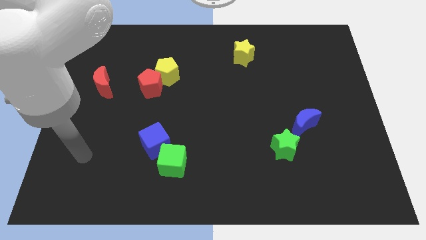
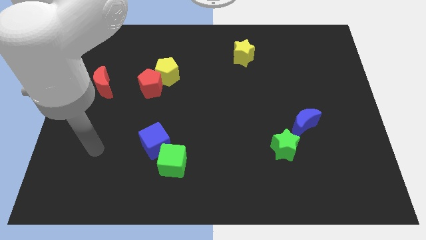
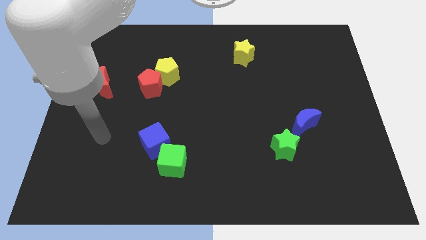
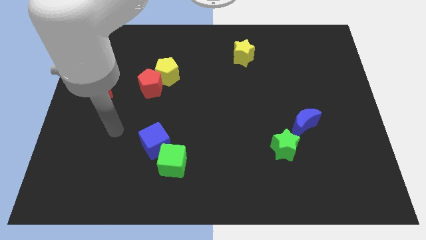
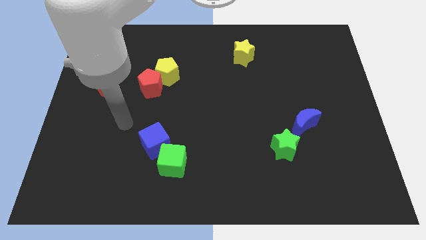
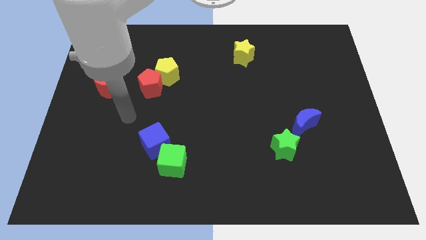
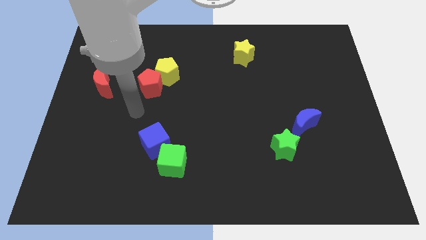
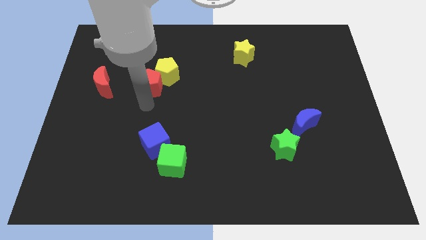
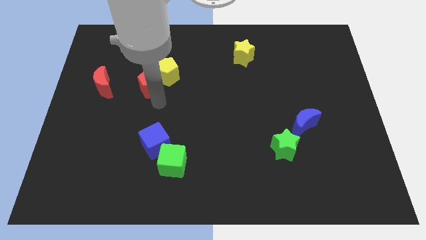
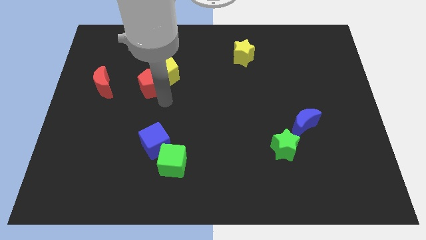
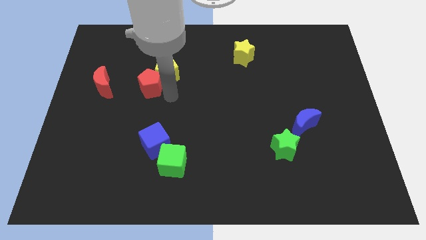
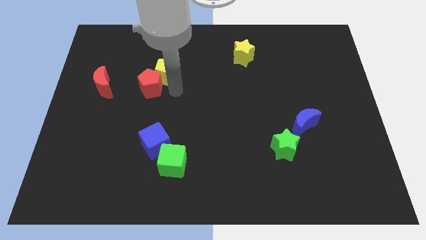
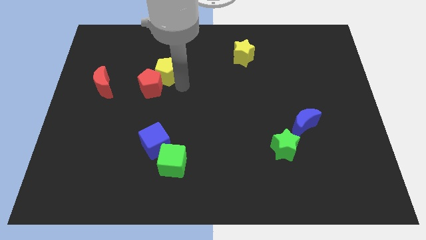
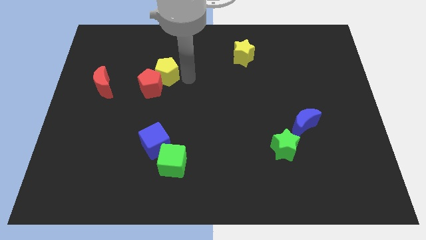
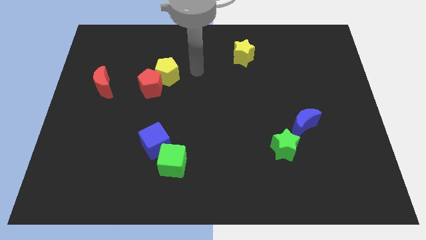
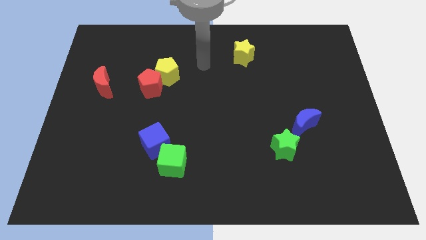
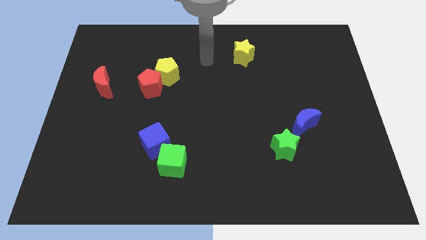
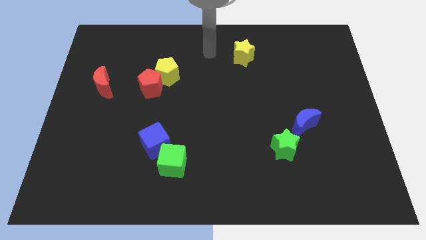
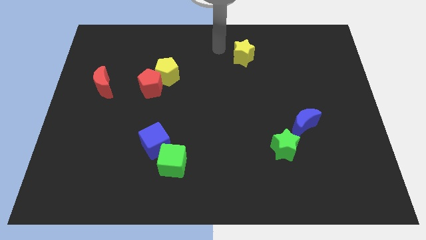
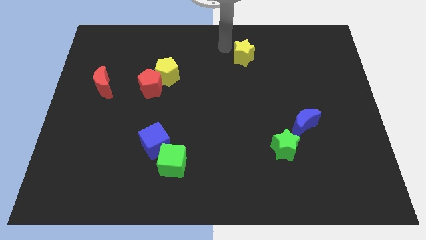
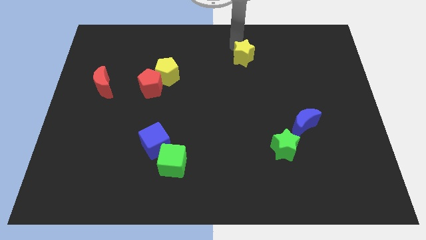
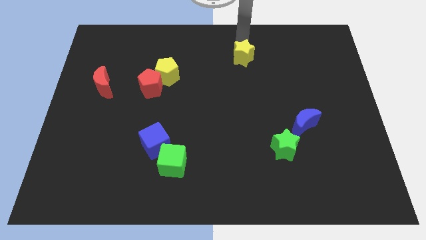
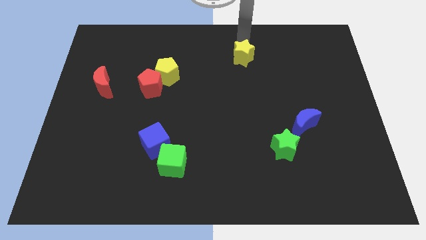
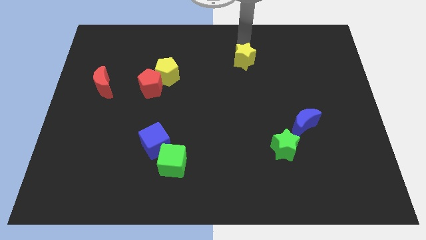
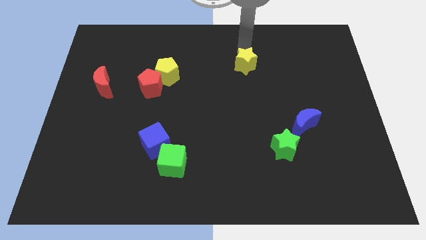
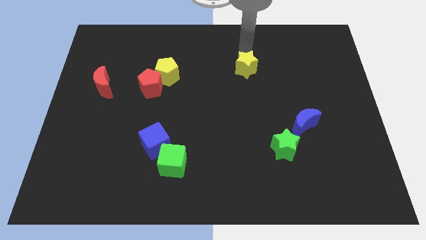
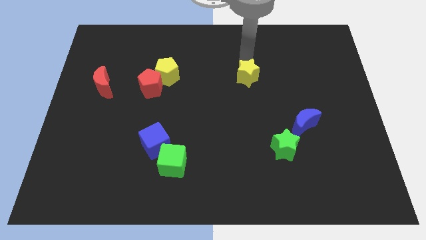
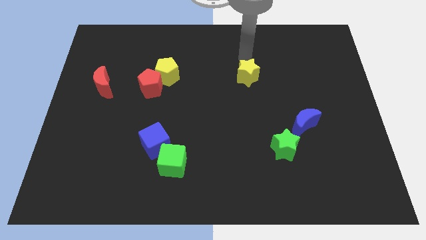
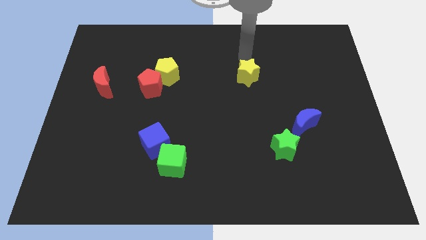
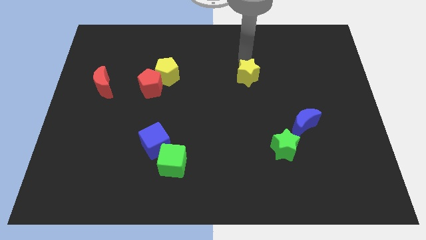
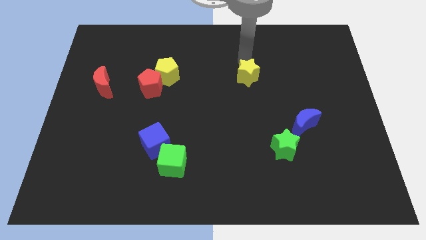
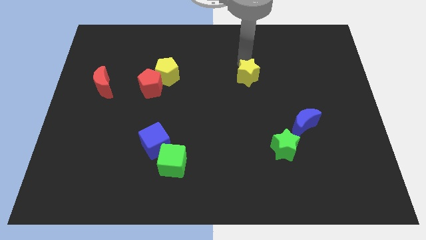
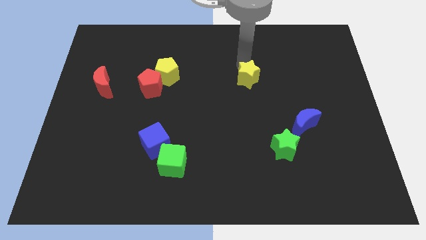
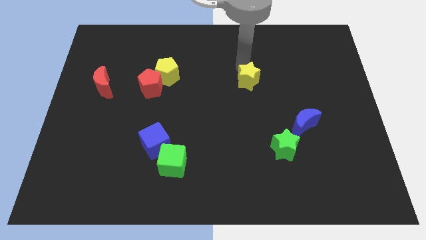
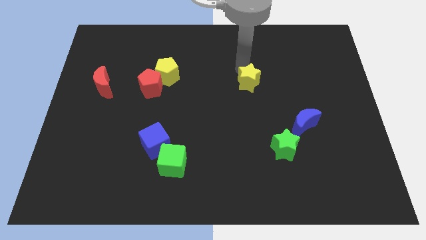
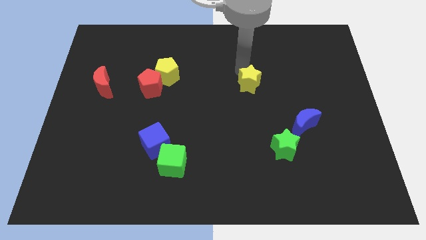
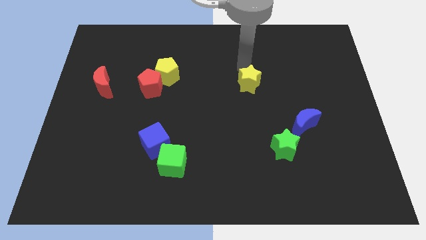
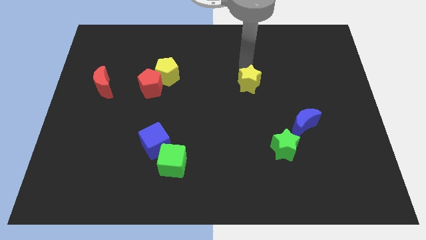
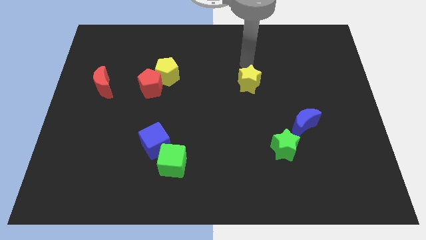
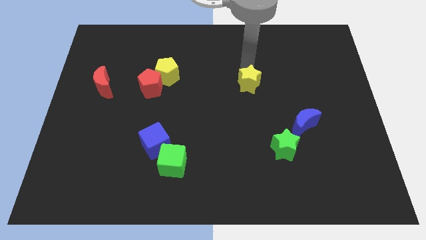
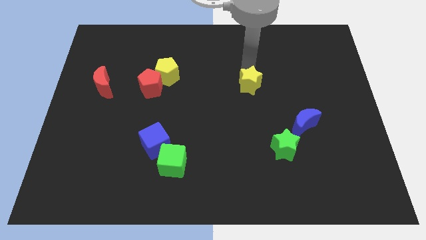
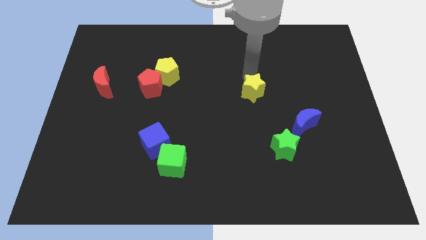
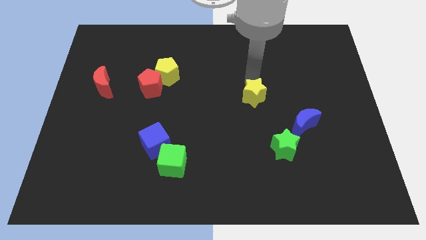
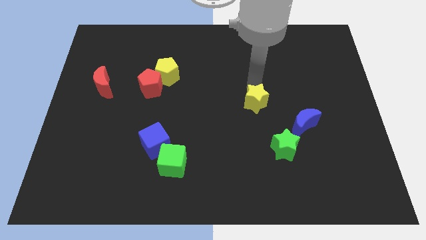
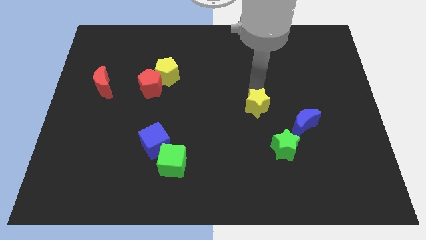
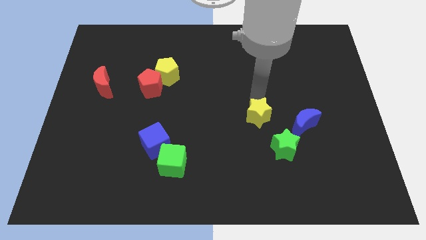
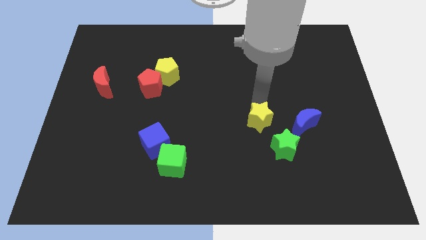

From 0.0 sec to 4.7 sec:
push the yellow star downwards

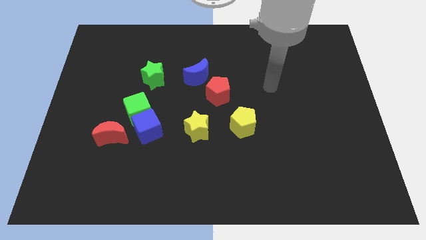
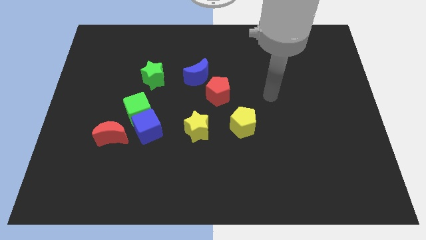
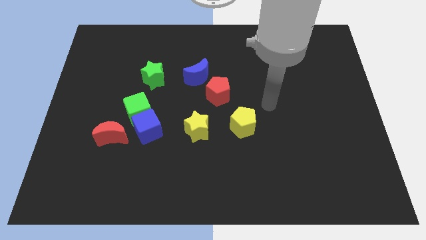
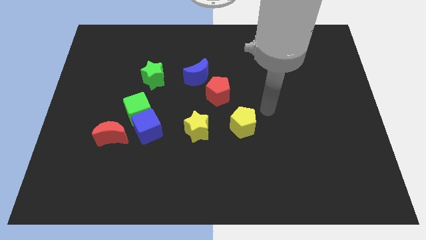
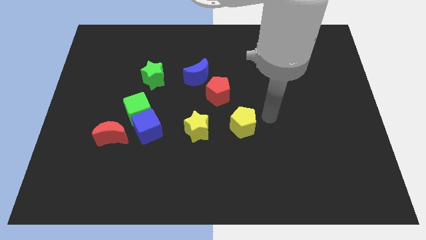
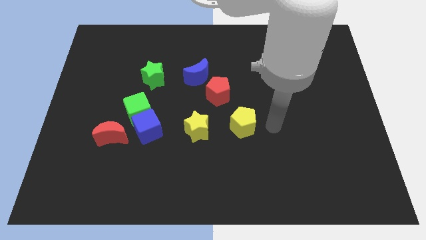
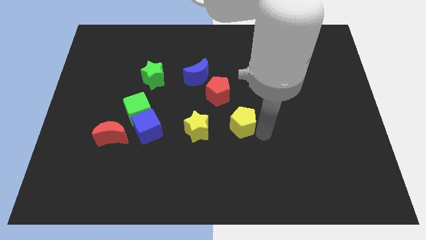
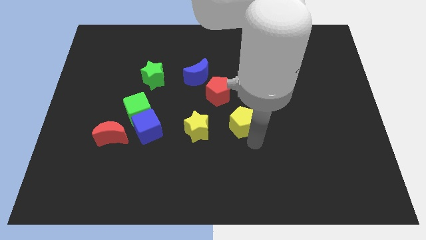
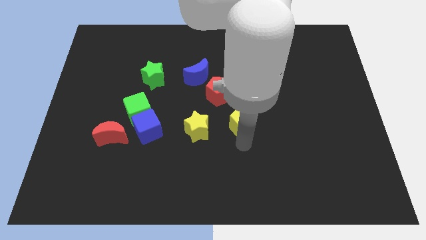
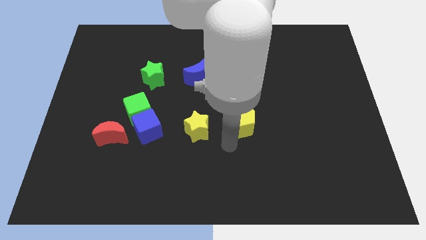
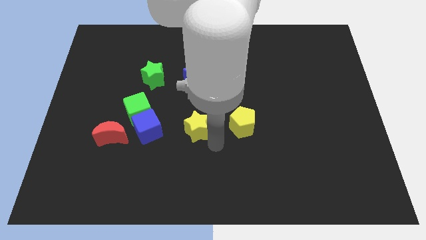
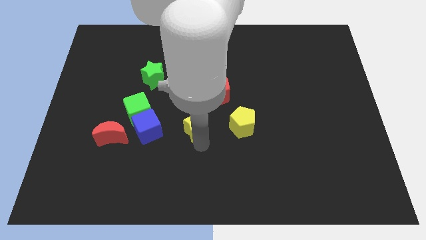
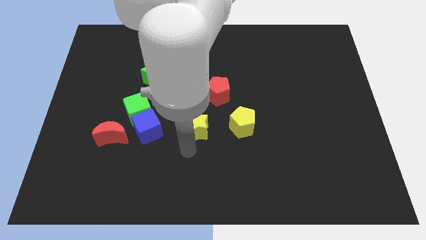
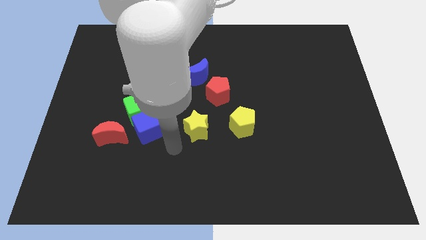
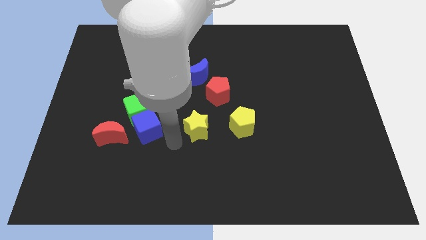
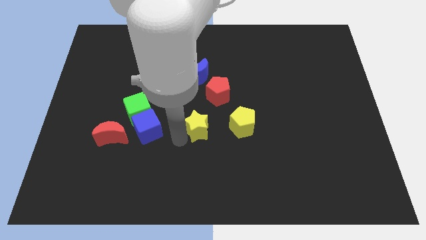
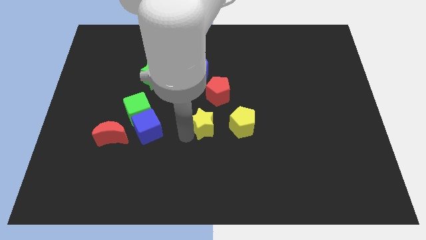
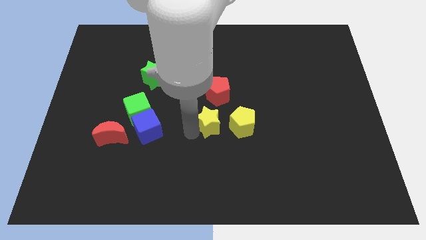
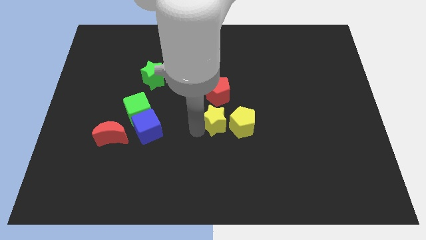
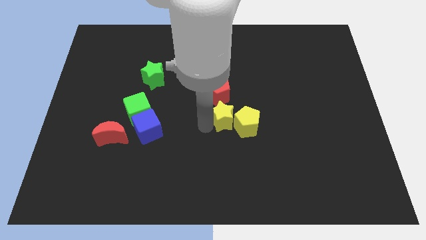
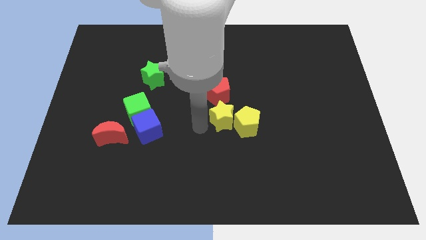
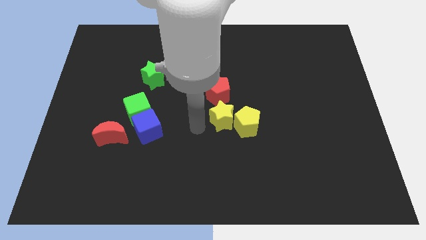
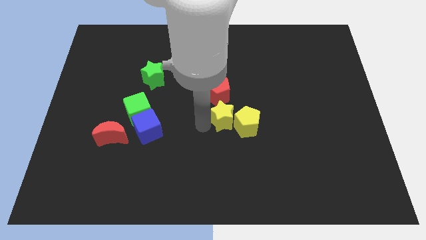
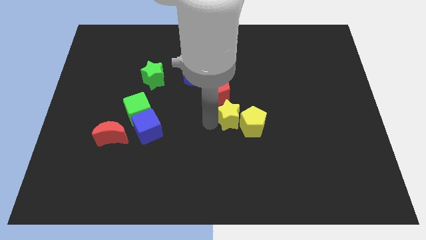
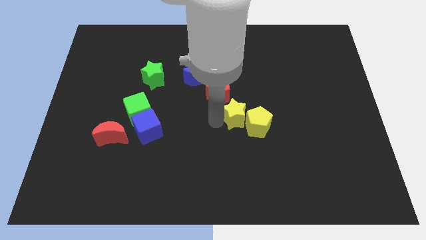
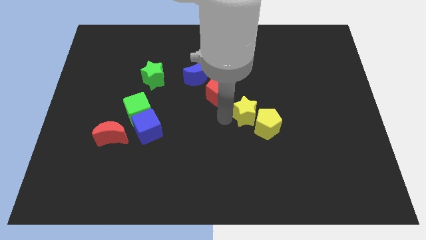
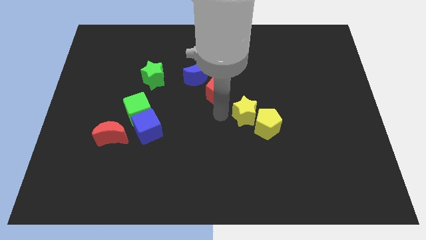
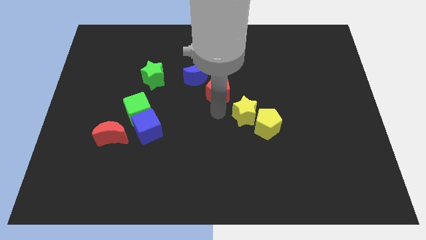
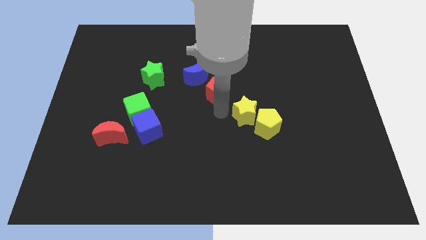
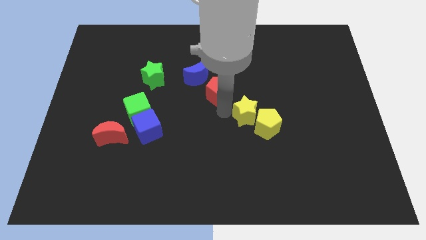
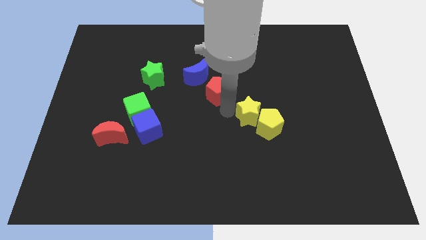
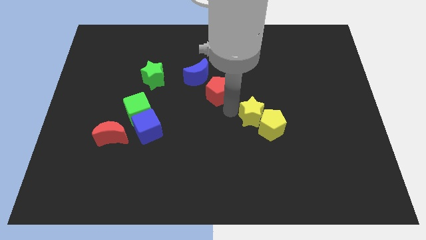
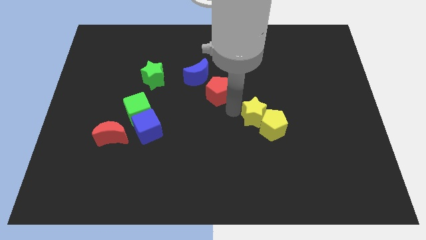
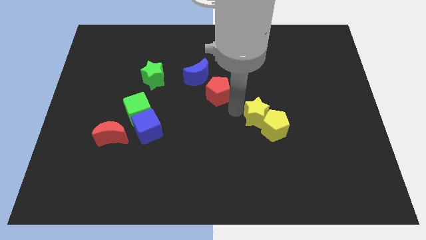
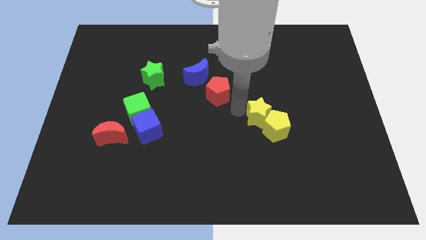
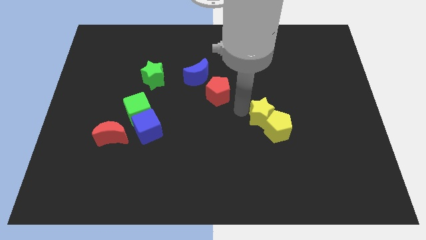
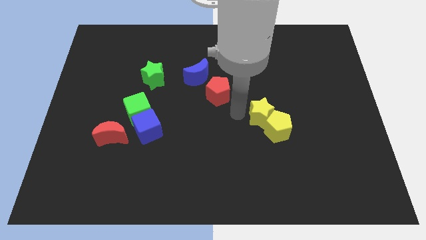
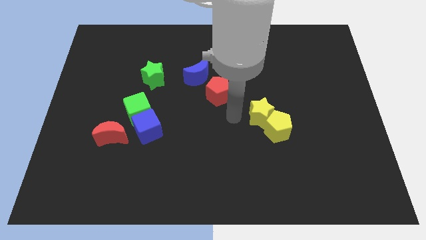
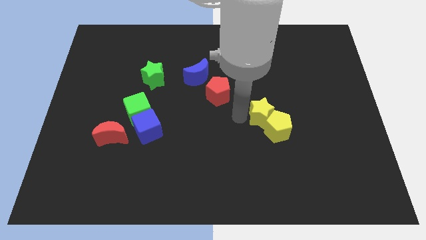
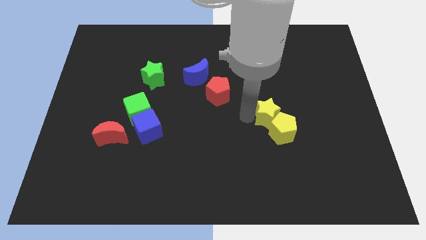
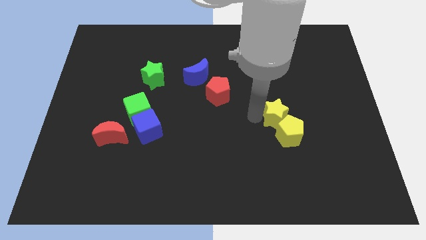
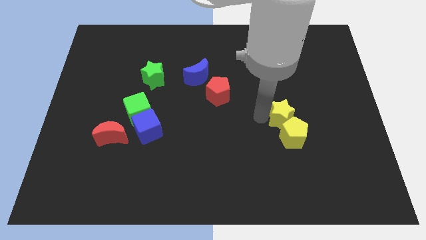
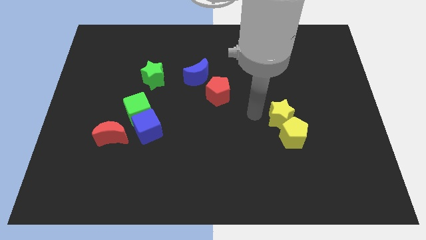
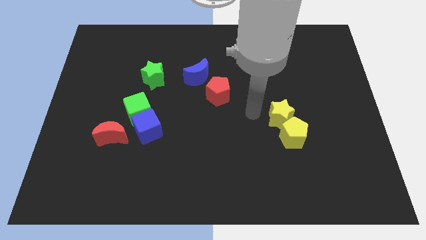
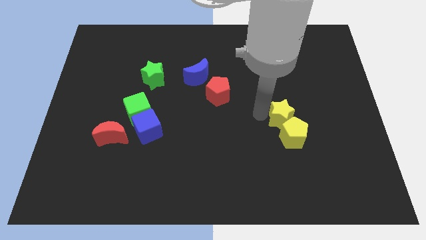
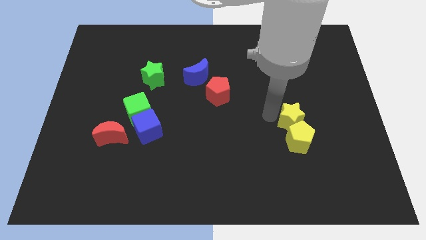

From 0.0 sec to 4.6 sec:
move the yellow star to the right
